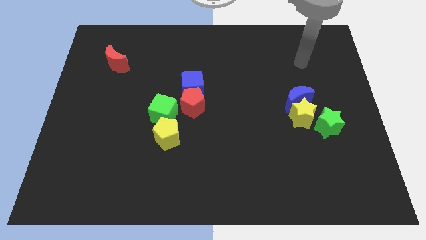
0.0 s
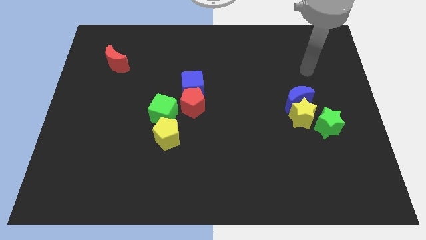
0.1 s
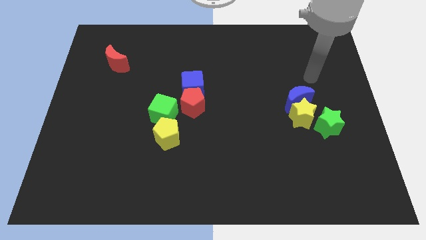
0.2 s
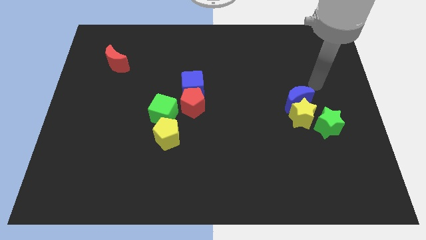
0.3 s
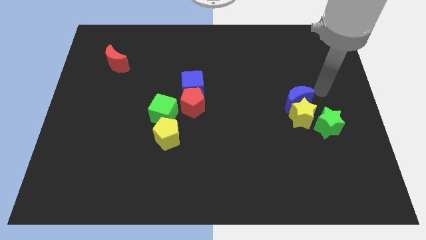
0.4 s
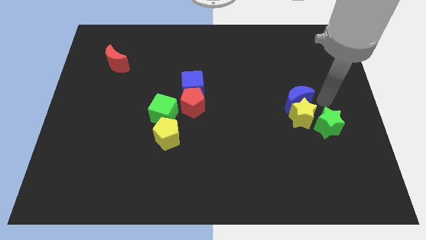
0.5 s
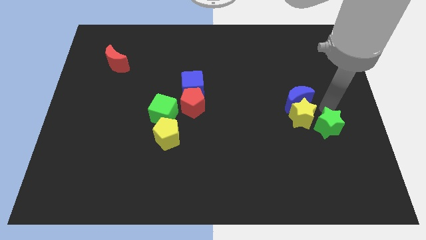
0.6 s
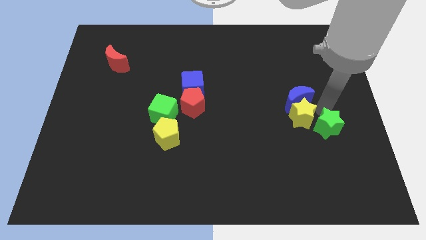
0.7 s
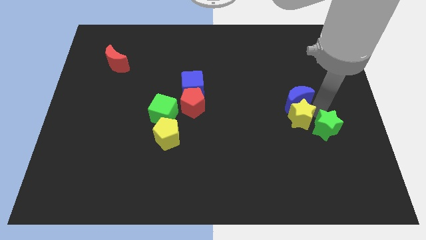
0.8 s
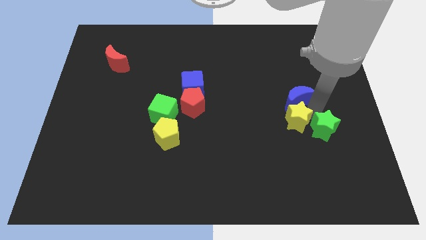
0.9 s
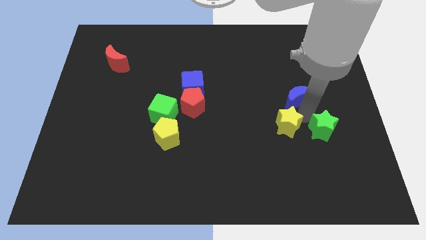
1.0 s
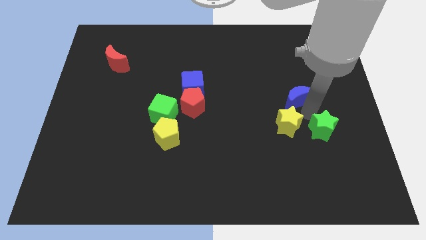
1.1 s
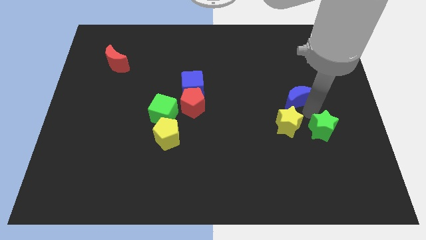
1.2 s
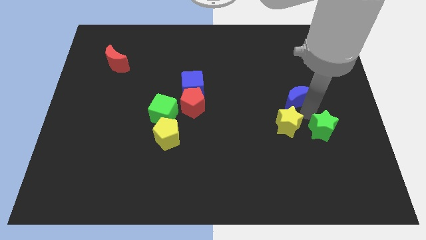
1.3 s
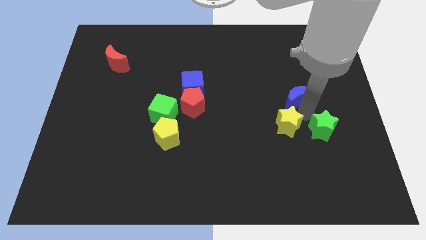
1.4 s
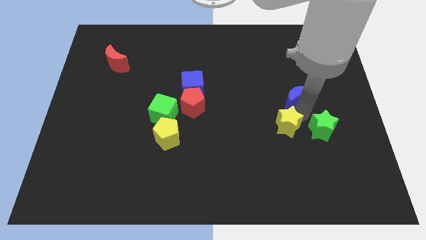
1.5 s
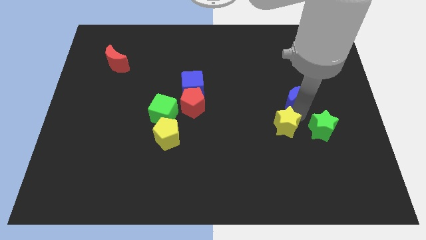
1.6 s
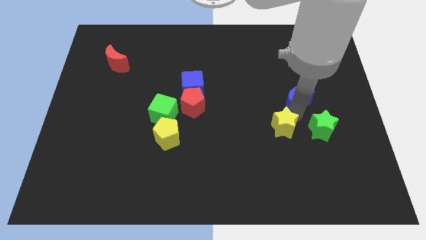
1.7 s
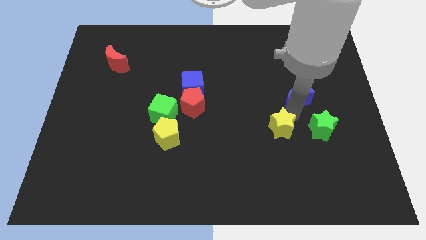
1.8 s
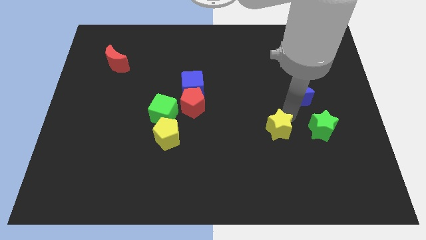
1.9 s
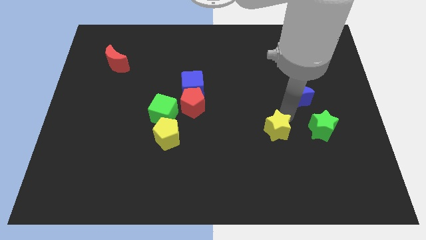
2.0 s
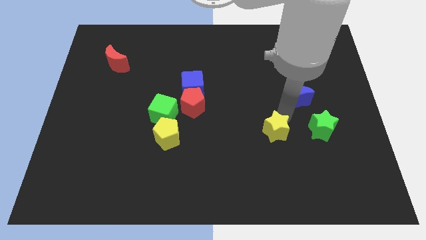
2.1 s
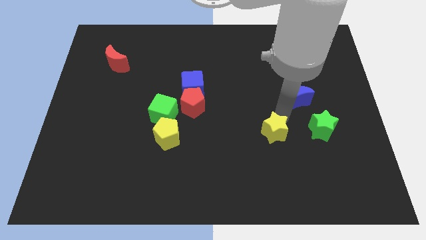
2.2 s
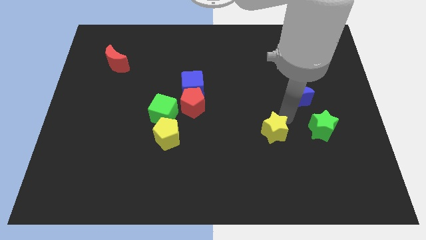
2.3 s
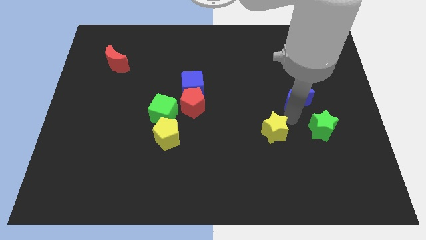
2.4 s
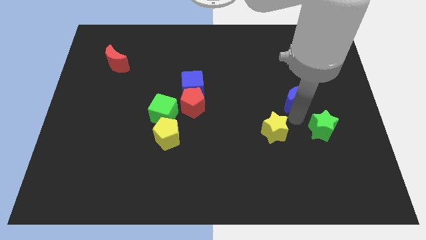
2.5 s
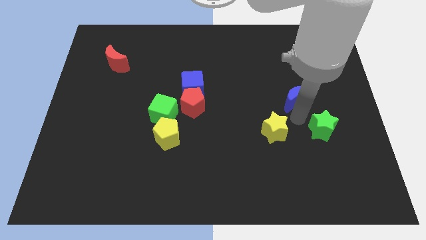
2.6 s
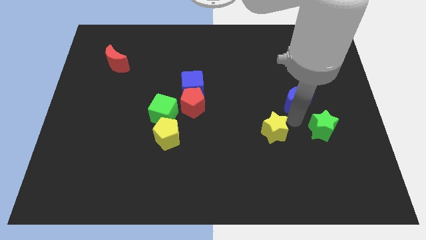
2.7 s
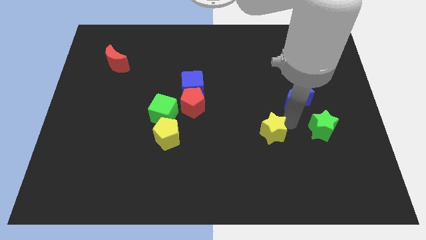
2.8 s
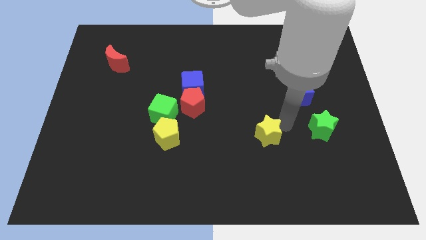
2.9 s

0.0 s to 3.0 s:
pull the yellow star apart from the blue moon and green star

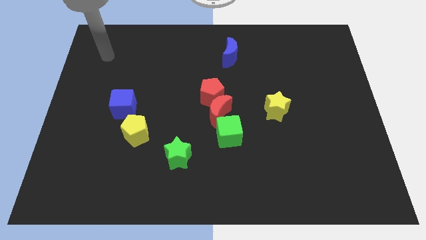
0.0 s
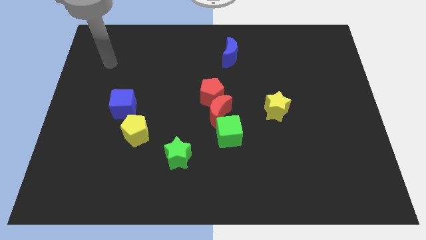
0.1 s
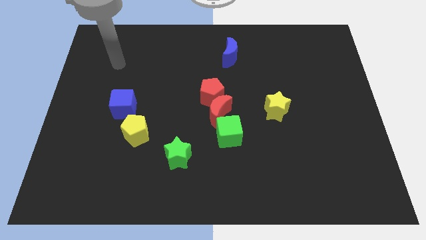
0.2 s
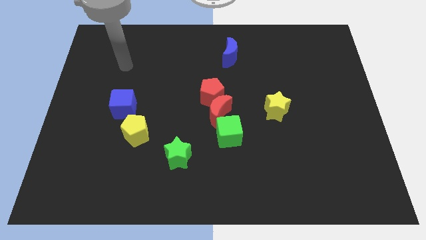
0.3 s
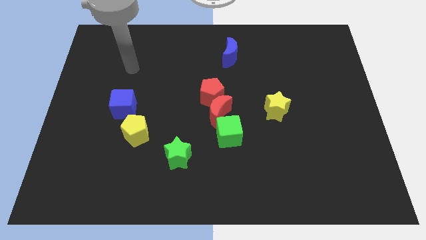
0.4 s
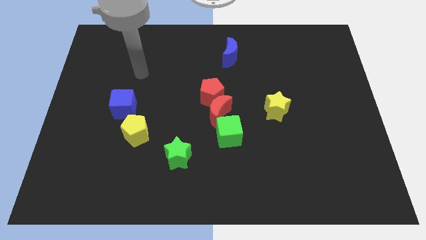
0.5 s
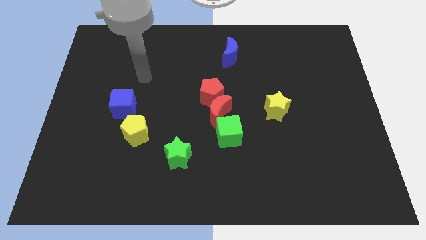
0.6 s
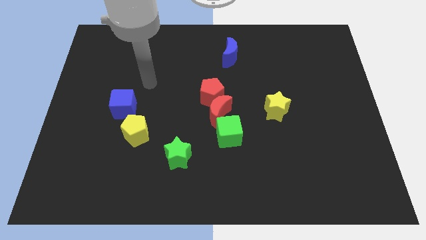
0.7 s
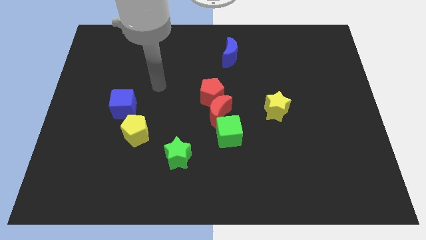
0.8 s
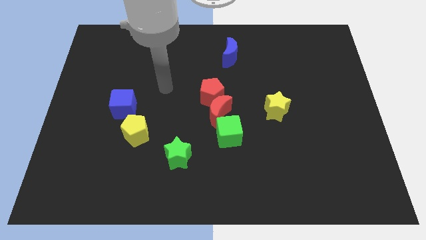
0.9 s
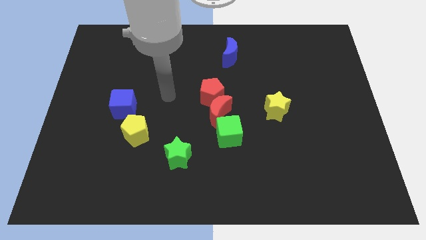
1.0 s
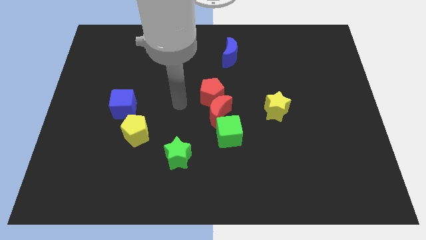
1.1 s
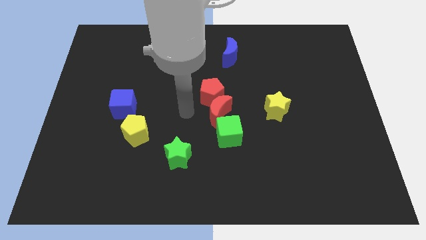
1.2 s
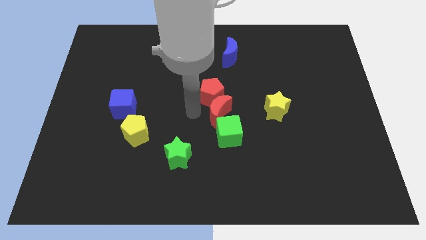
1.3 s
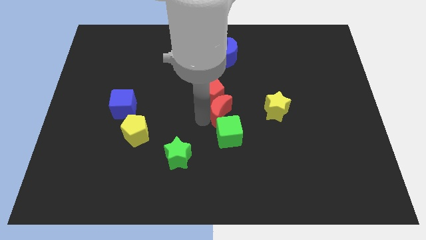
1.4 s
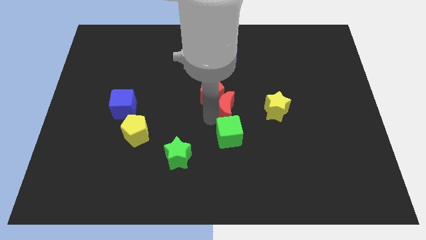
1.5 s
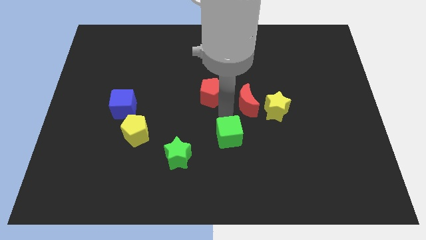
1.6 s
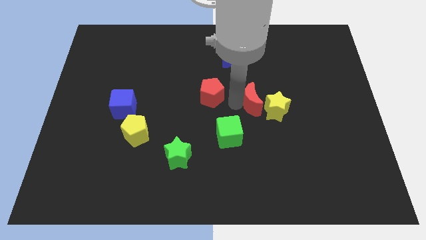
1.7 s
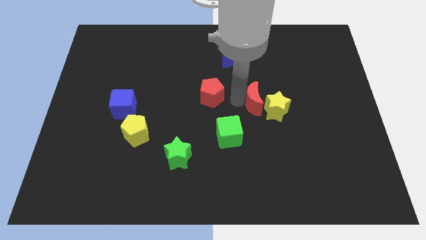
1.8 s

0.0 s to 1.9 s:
separate the red pentagon from the red moon

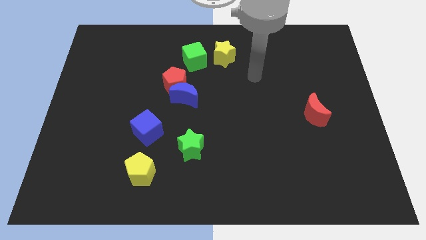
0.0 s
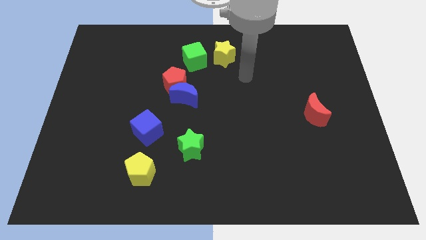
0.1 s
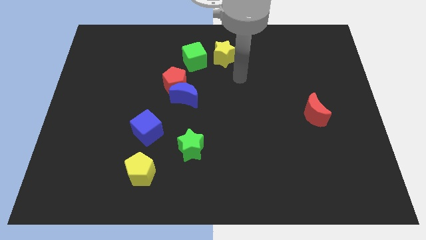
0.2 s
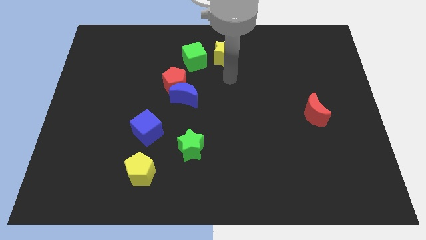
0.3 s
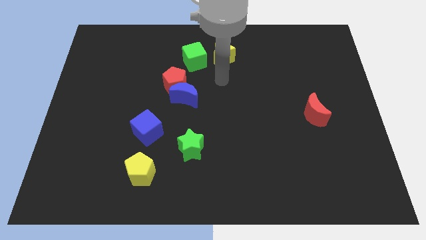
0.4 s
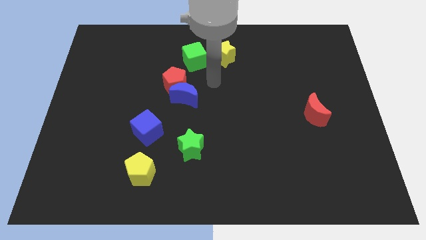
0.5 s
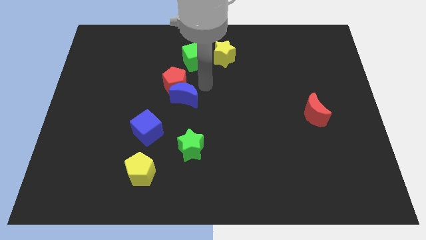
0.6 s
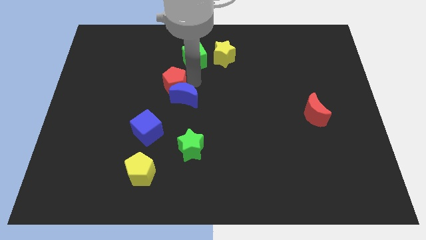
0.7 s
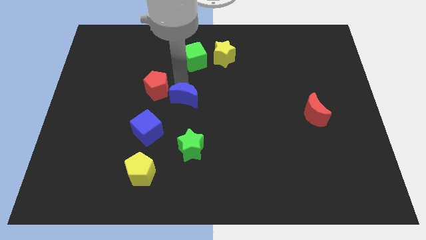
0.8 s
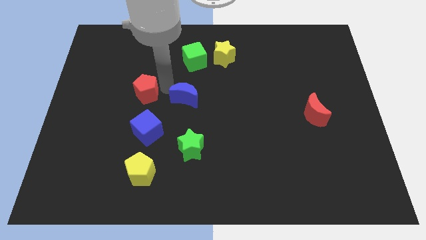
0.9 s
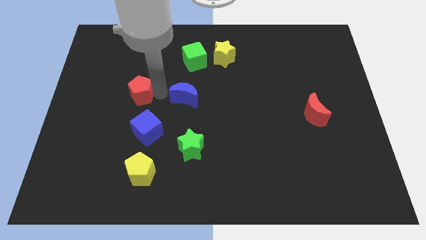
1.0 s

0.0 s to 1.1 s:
pull the blue moon apart from the red pentagon

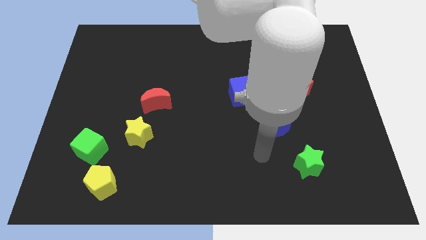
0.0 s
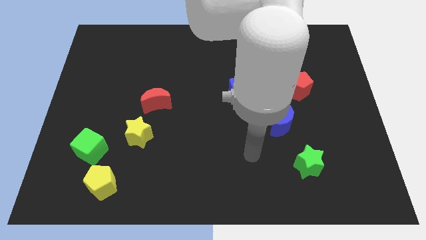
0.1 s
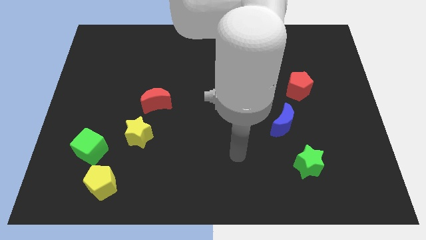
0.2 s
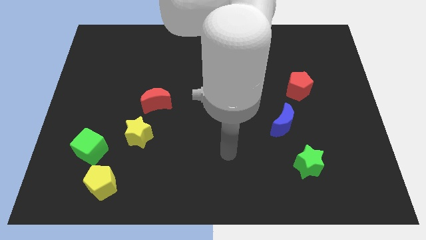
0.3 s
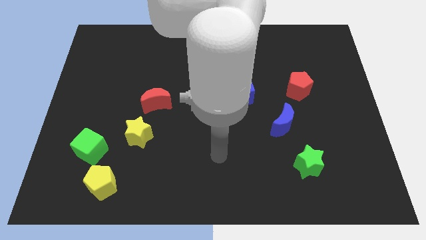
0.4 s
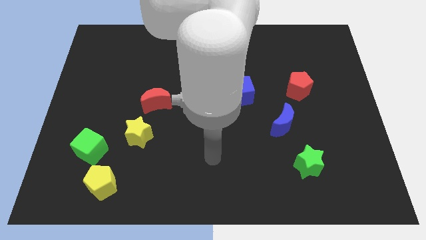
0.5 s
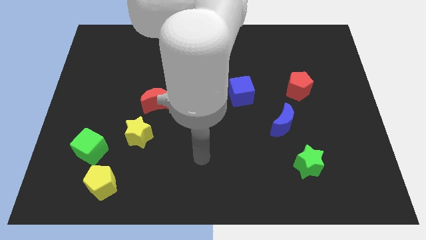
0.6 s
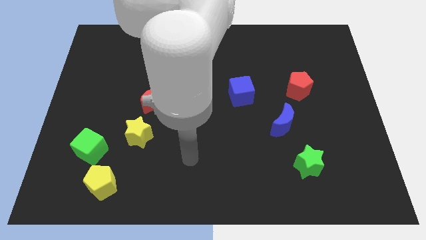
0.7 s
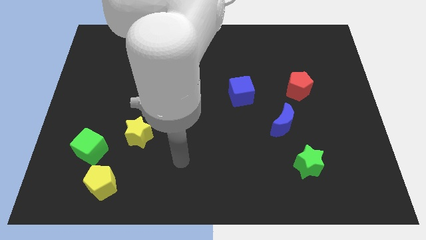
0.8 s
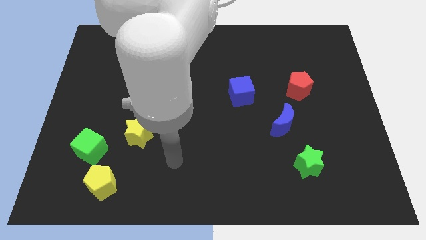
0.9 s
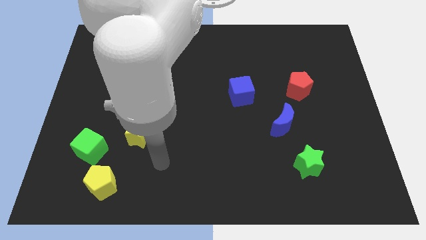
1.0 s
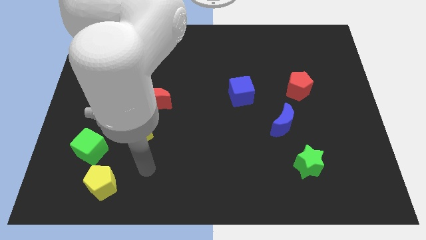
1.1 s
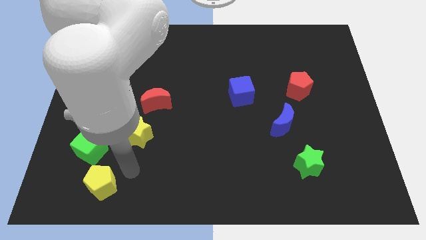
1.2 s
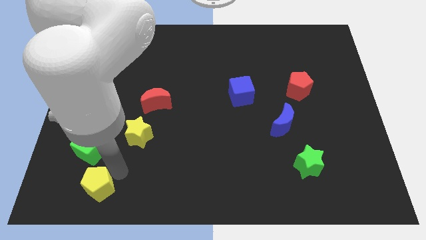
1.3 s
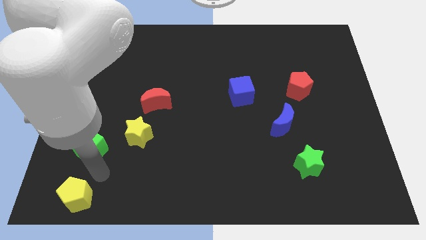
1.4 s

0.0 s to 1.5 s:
move the green cube away from the yellow pentagon

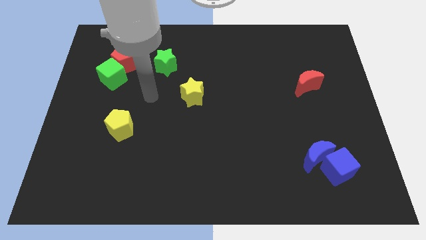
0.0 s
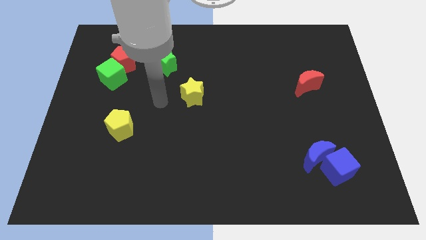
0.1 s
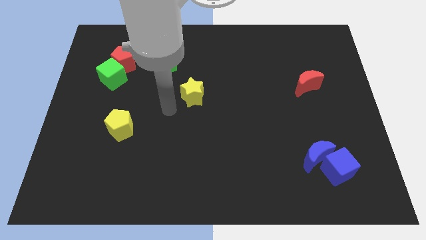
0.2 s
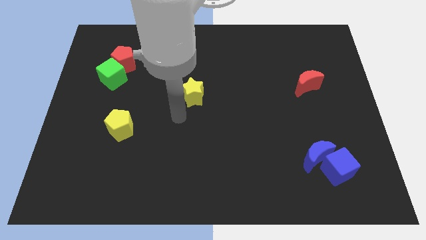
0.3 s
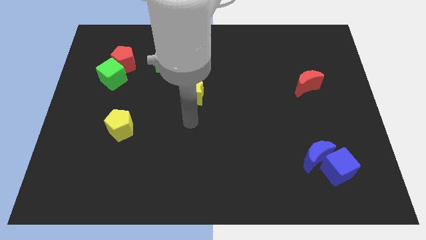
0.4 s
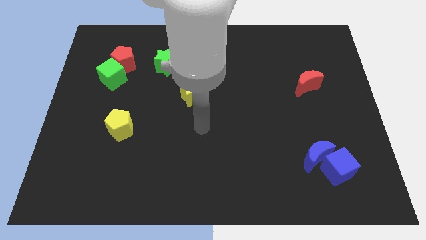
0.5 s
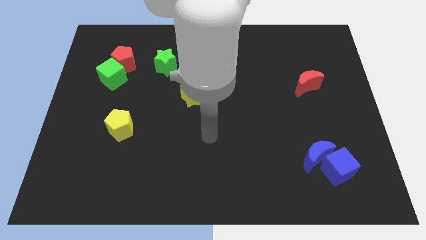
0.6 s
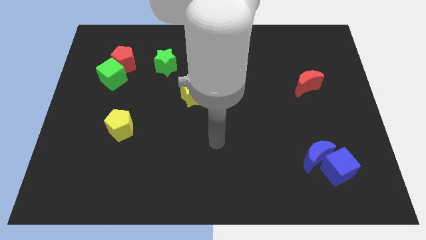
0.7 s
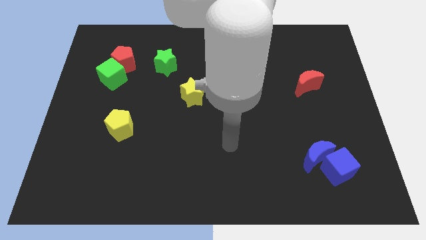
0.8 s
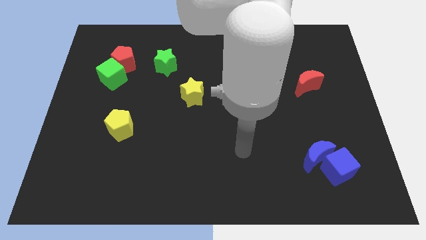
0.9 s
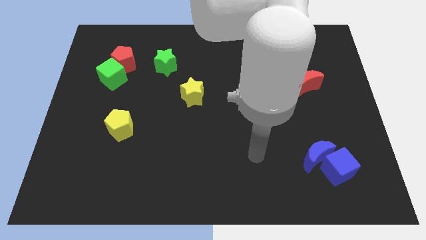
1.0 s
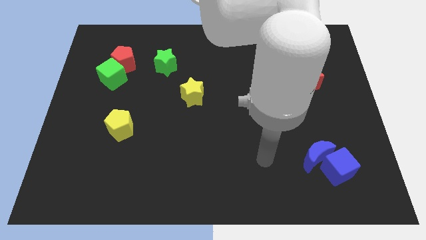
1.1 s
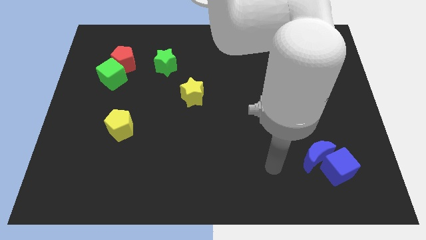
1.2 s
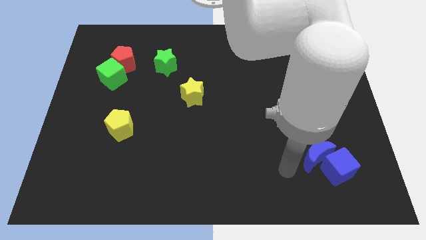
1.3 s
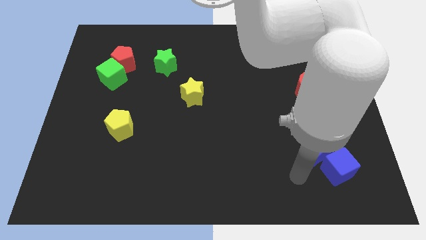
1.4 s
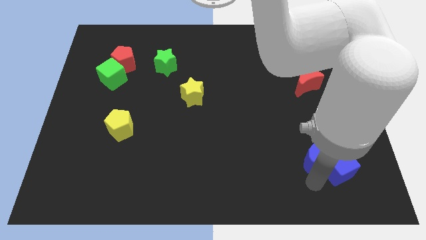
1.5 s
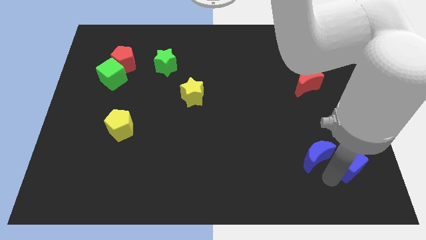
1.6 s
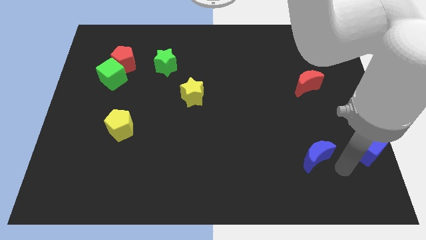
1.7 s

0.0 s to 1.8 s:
separate the blue moon from the blue cube
